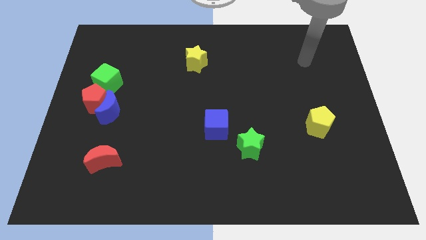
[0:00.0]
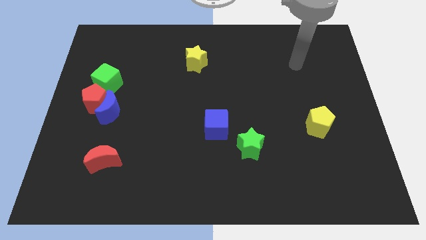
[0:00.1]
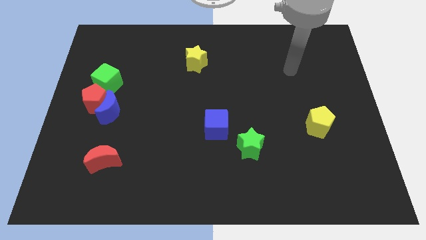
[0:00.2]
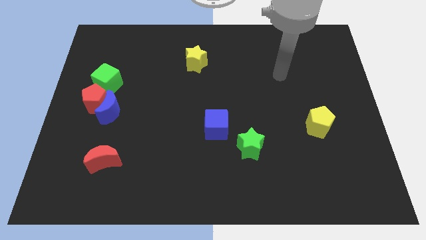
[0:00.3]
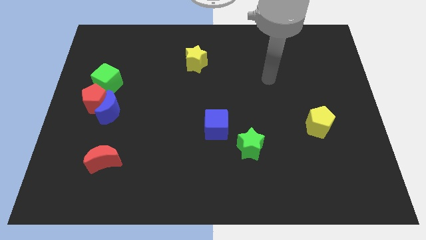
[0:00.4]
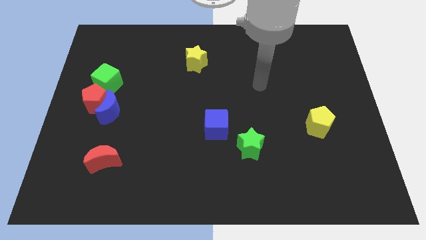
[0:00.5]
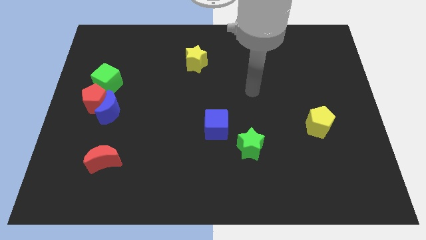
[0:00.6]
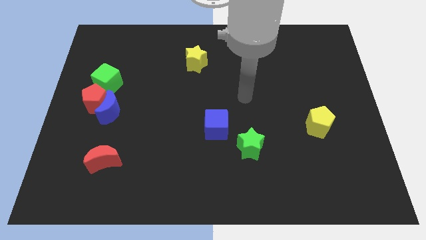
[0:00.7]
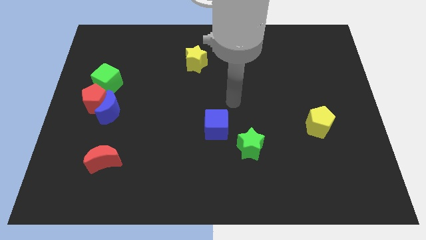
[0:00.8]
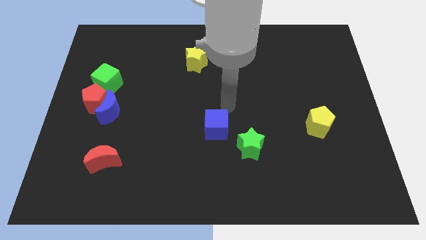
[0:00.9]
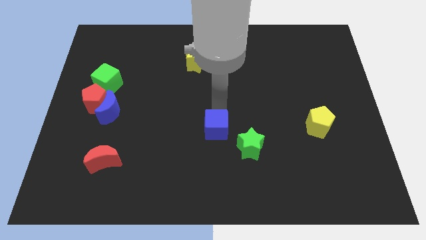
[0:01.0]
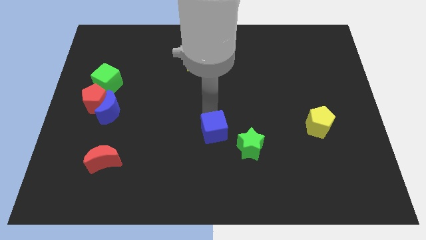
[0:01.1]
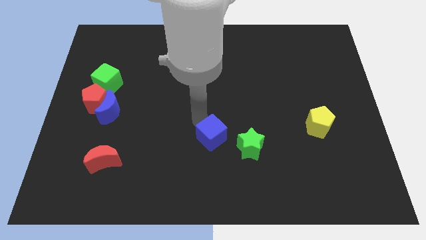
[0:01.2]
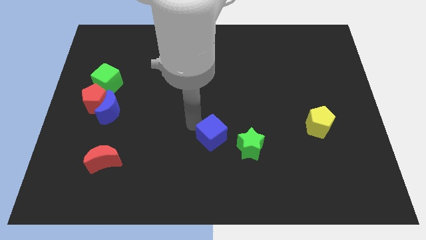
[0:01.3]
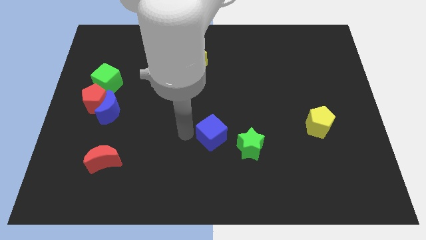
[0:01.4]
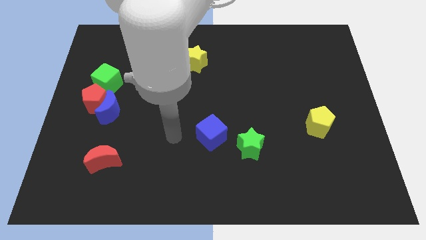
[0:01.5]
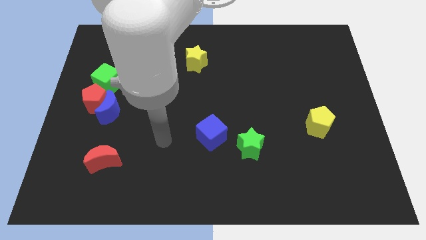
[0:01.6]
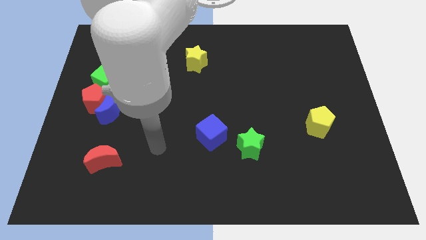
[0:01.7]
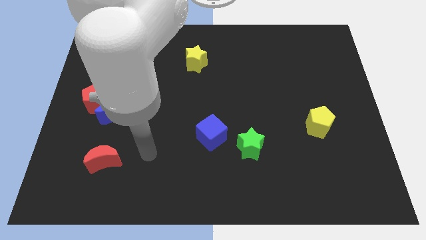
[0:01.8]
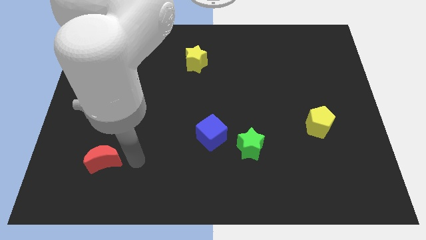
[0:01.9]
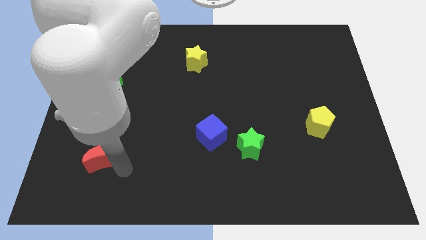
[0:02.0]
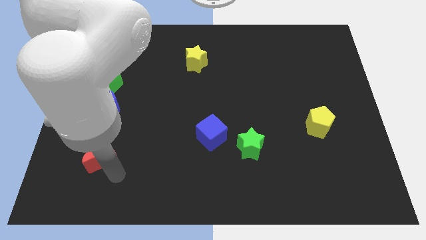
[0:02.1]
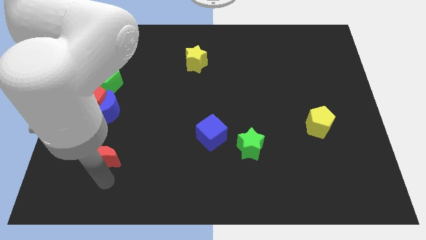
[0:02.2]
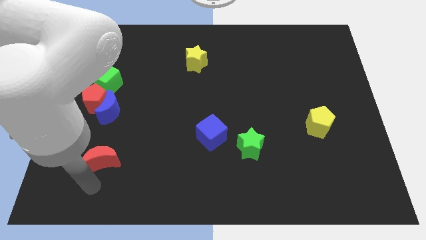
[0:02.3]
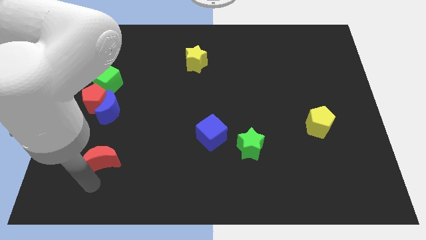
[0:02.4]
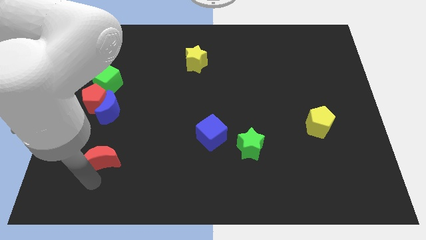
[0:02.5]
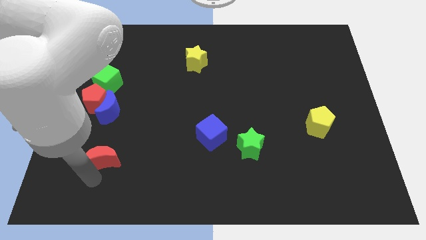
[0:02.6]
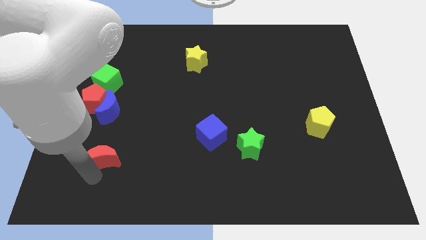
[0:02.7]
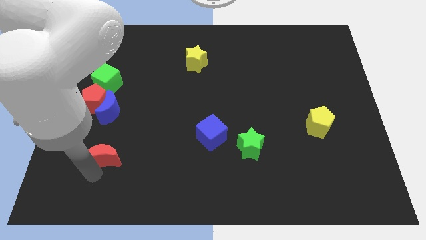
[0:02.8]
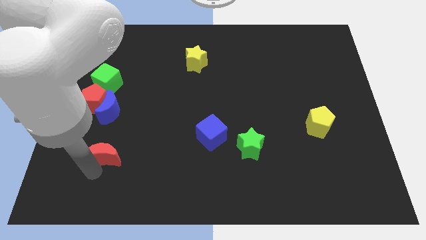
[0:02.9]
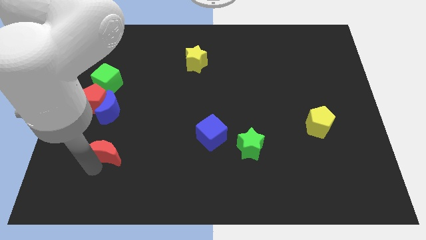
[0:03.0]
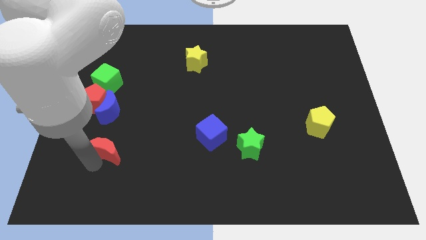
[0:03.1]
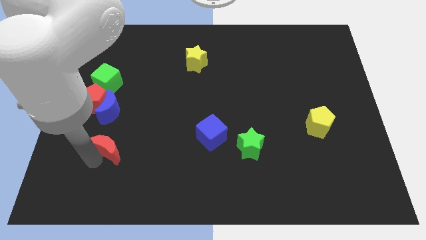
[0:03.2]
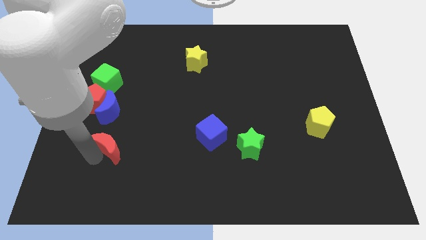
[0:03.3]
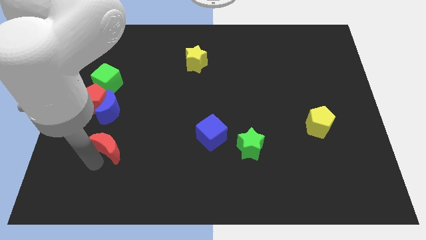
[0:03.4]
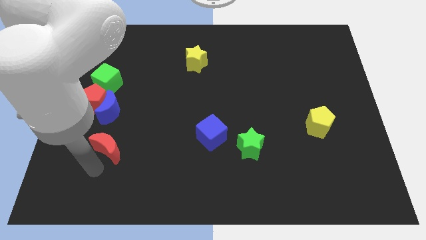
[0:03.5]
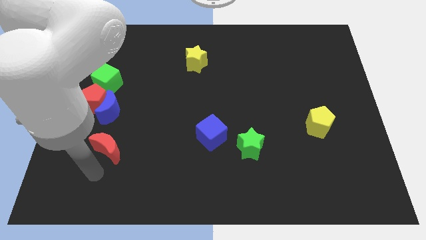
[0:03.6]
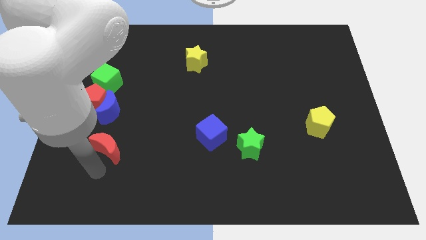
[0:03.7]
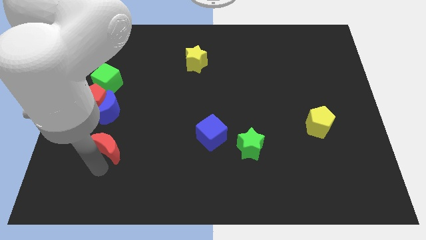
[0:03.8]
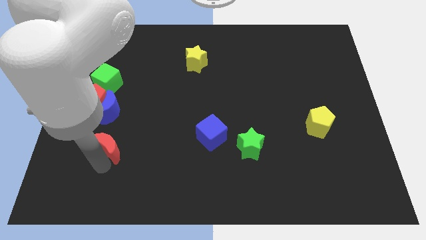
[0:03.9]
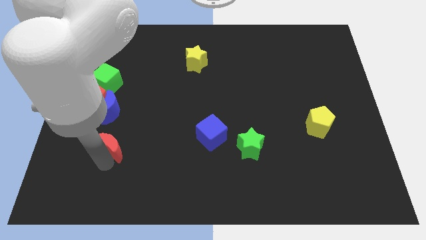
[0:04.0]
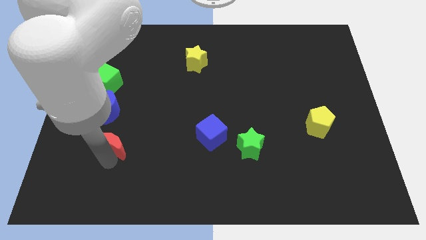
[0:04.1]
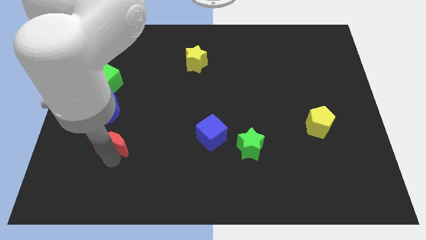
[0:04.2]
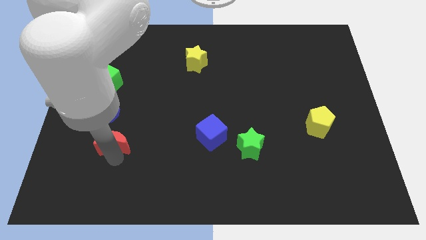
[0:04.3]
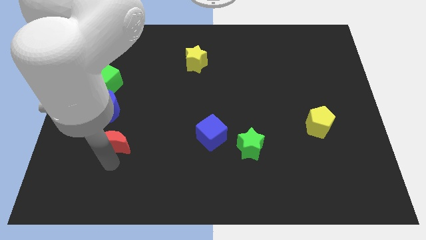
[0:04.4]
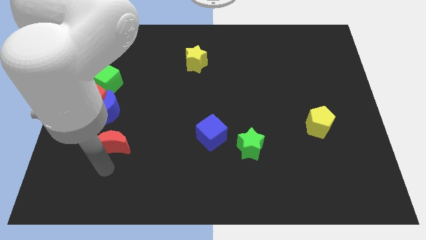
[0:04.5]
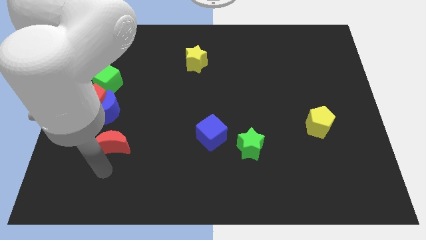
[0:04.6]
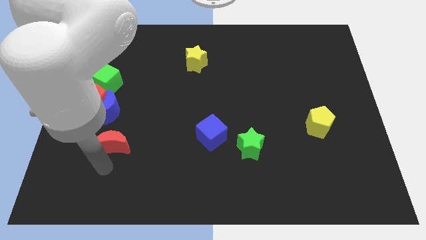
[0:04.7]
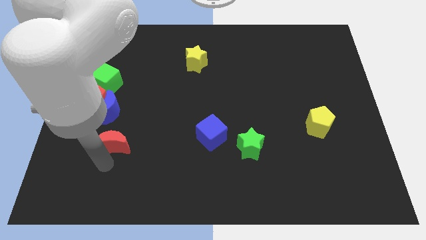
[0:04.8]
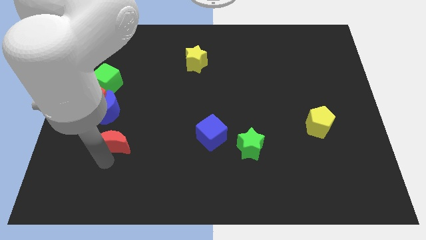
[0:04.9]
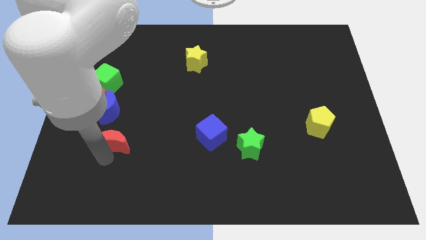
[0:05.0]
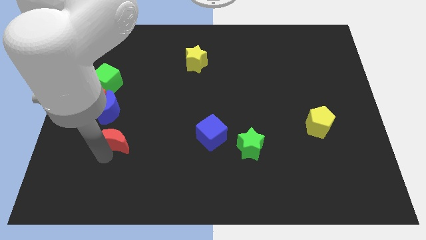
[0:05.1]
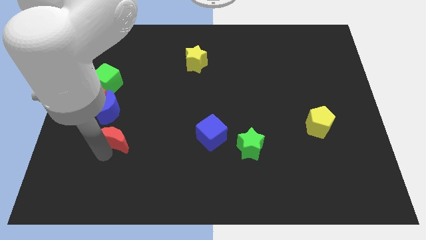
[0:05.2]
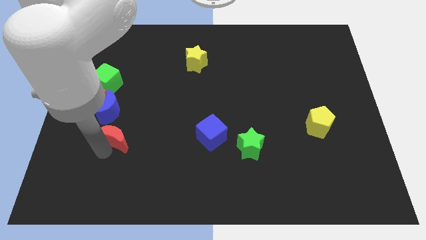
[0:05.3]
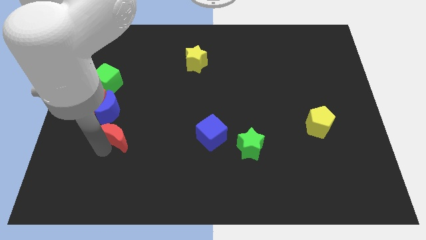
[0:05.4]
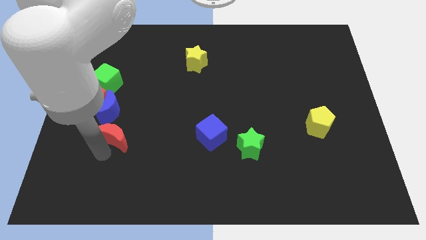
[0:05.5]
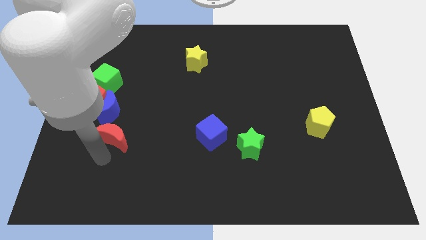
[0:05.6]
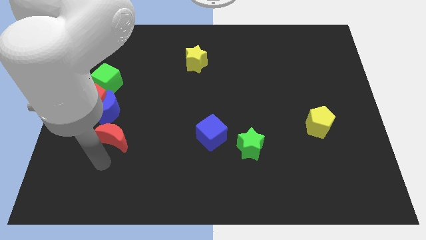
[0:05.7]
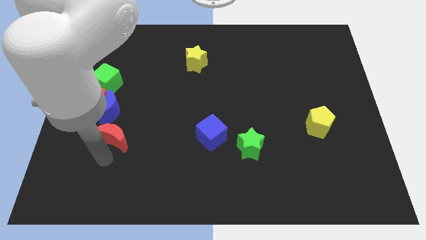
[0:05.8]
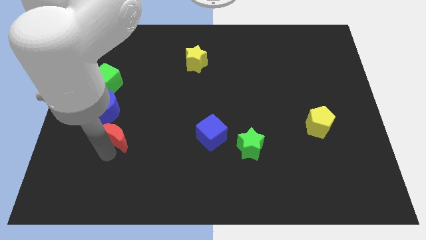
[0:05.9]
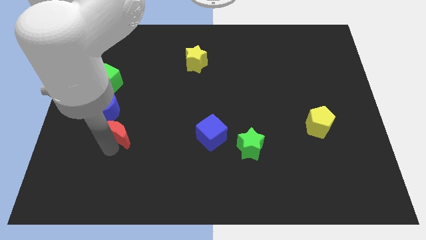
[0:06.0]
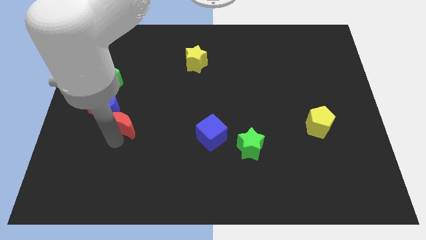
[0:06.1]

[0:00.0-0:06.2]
move the red moon a little up

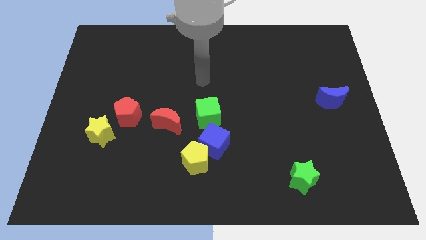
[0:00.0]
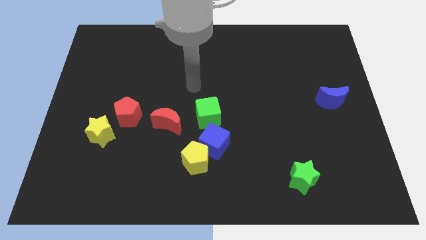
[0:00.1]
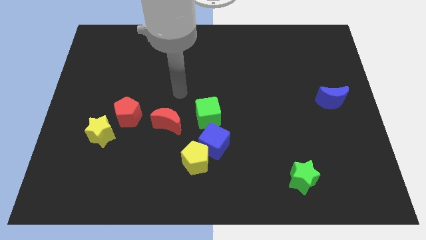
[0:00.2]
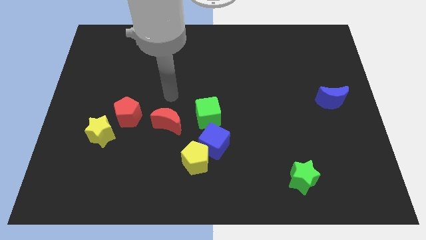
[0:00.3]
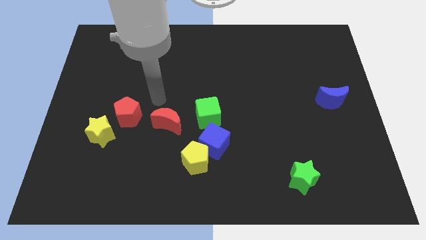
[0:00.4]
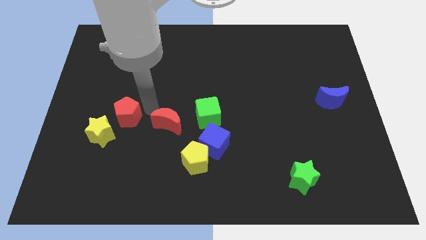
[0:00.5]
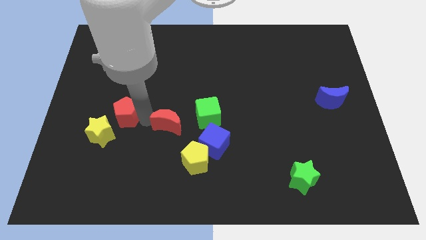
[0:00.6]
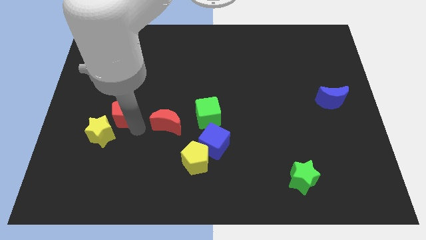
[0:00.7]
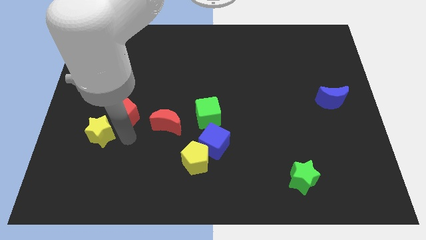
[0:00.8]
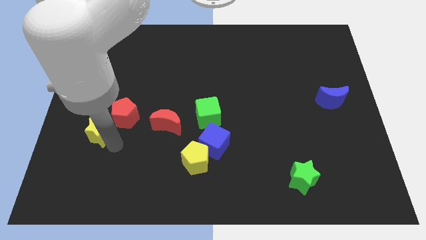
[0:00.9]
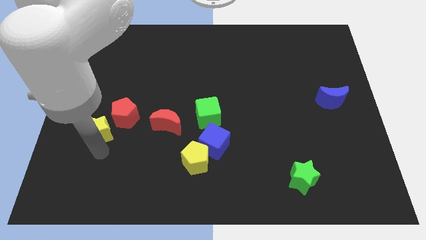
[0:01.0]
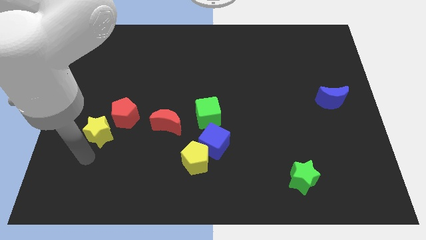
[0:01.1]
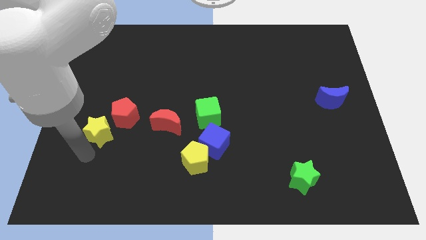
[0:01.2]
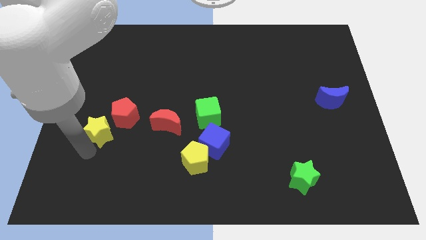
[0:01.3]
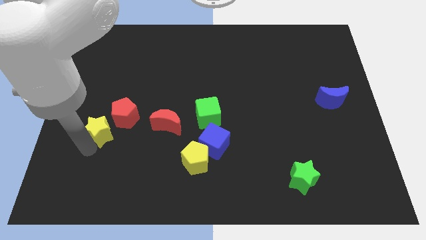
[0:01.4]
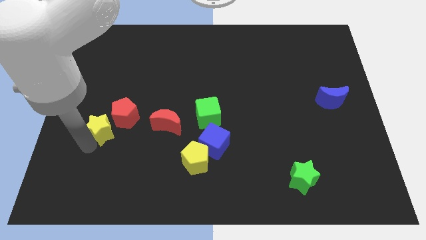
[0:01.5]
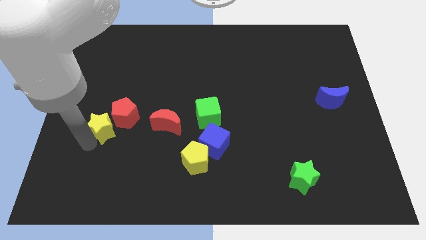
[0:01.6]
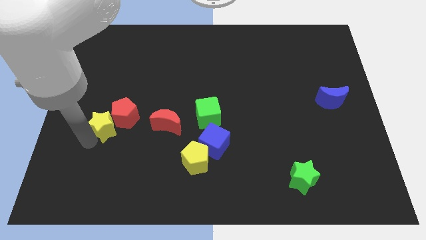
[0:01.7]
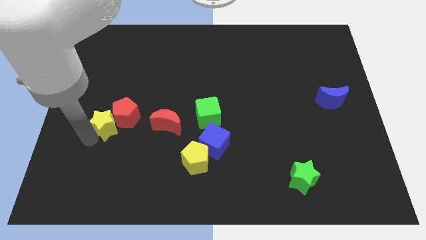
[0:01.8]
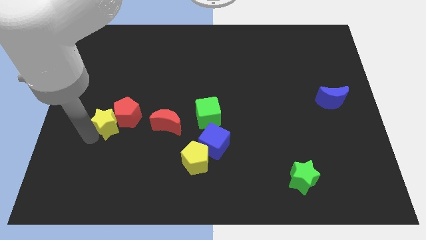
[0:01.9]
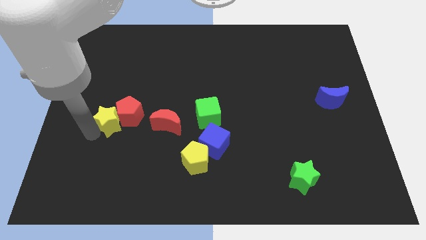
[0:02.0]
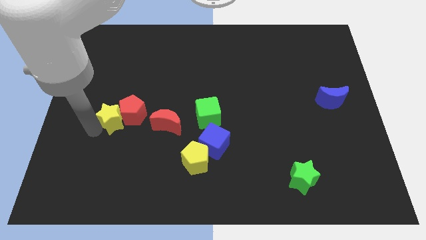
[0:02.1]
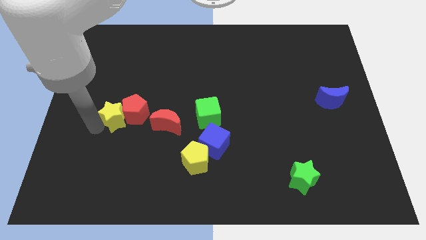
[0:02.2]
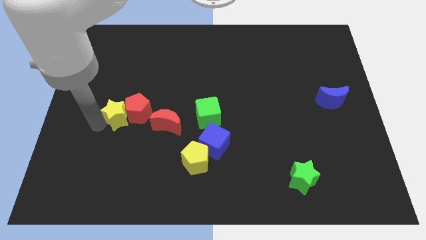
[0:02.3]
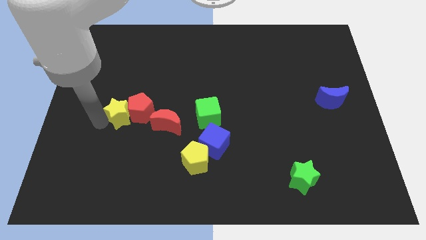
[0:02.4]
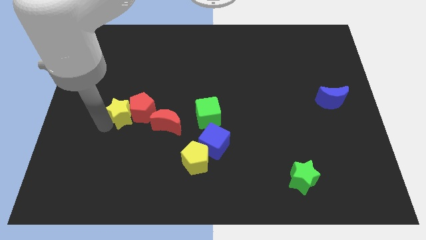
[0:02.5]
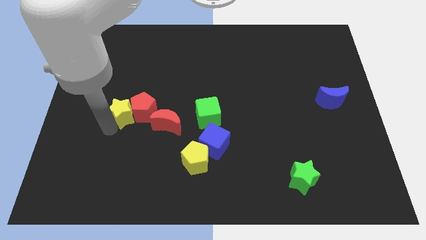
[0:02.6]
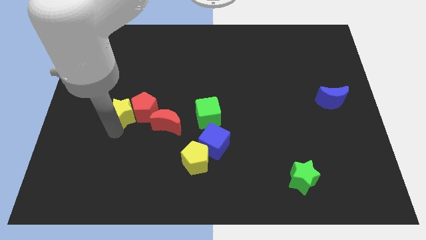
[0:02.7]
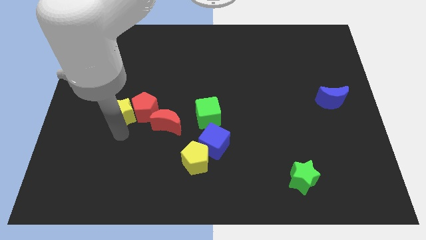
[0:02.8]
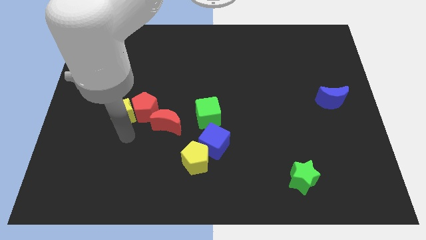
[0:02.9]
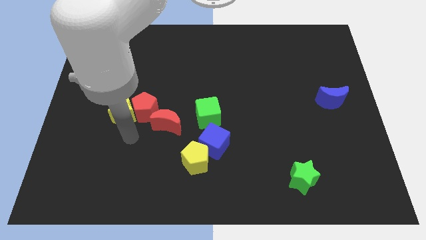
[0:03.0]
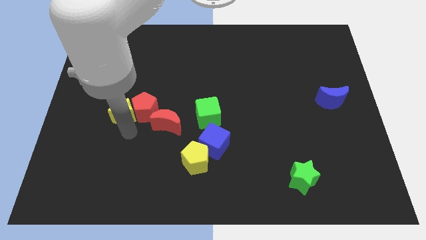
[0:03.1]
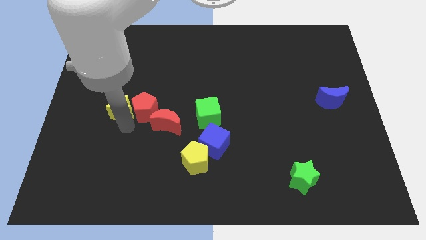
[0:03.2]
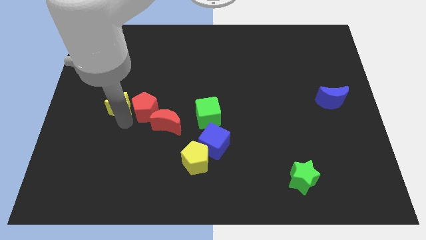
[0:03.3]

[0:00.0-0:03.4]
push the yellow star slightly upwards
